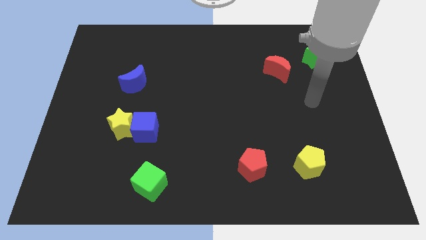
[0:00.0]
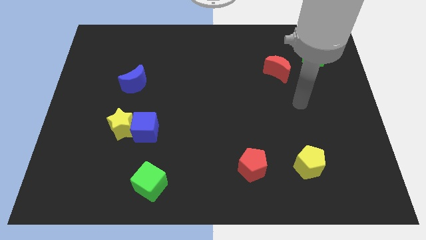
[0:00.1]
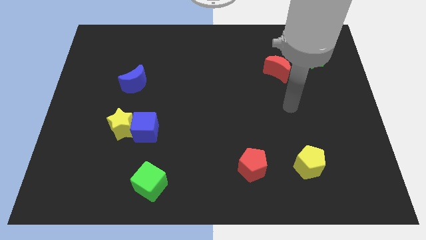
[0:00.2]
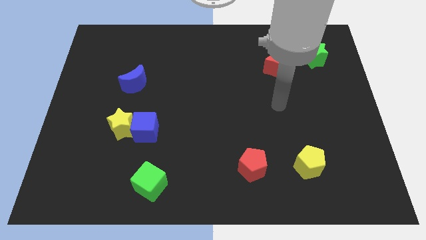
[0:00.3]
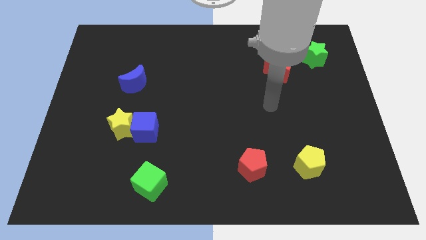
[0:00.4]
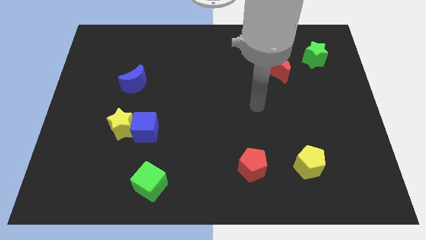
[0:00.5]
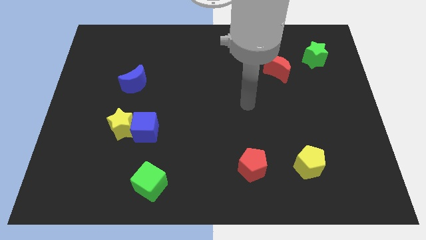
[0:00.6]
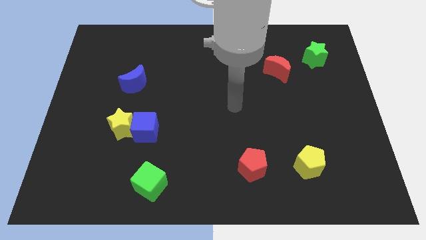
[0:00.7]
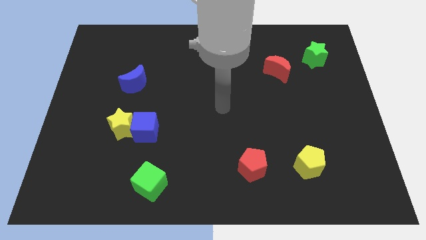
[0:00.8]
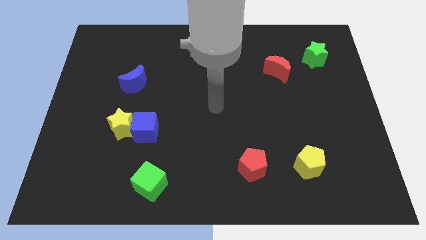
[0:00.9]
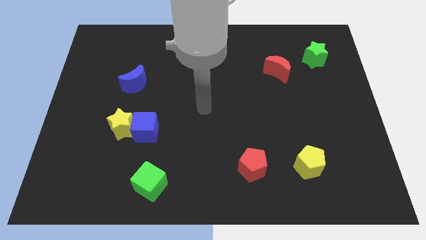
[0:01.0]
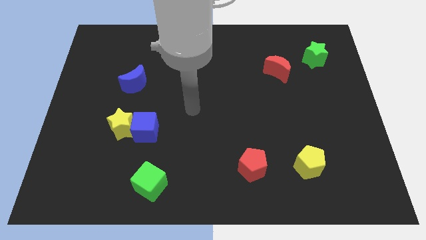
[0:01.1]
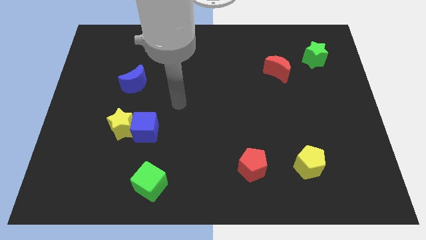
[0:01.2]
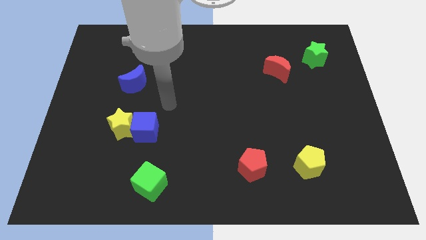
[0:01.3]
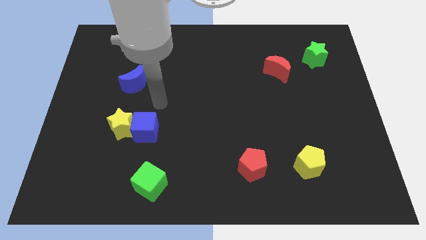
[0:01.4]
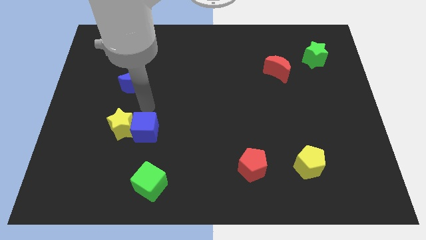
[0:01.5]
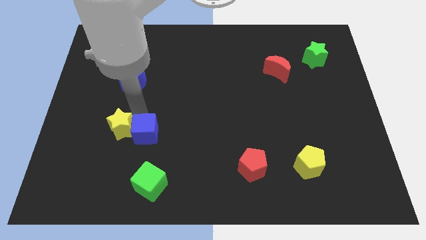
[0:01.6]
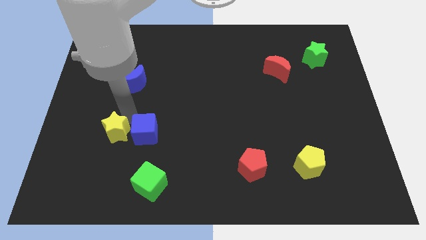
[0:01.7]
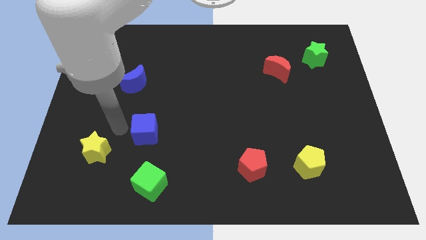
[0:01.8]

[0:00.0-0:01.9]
separate the blue cube from the yellow star

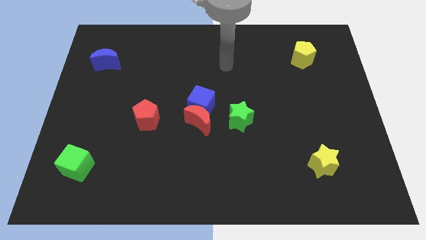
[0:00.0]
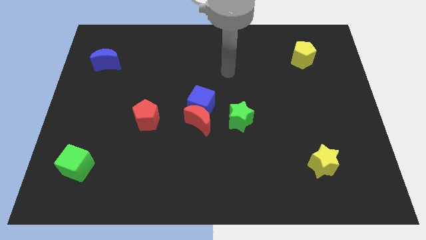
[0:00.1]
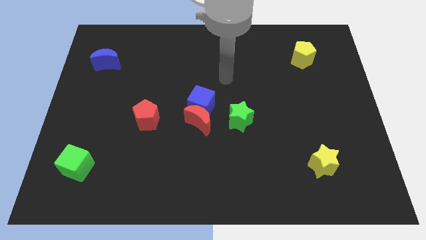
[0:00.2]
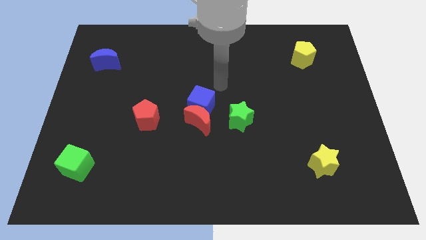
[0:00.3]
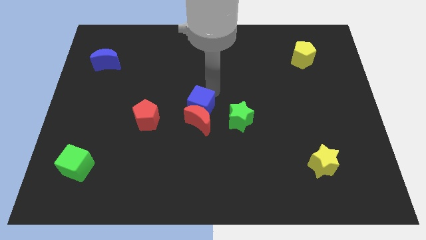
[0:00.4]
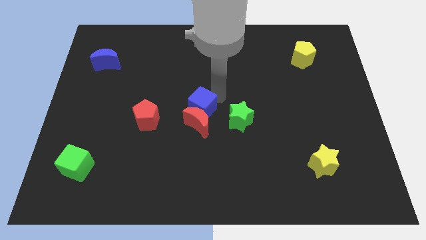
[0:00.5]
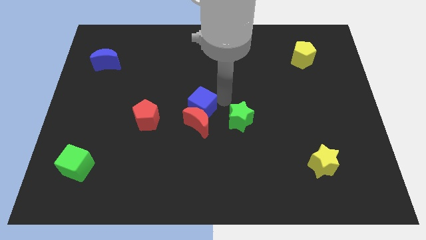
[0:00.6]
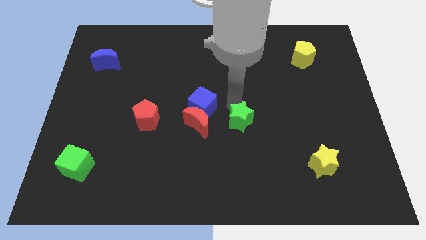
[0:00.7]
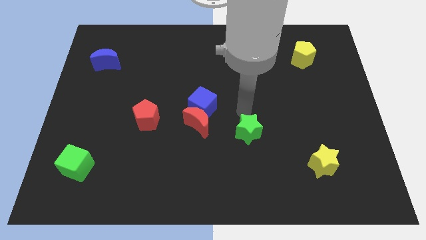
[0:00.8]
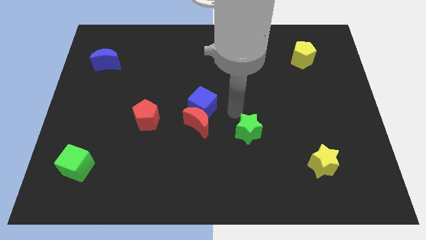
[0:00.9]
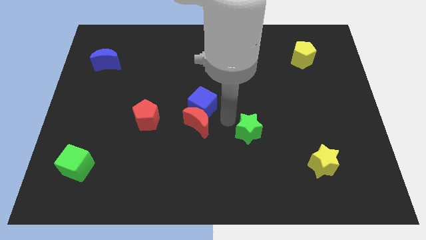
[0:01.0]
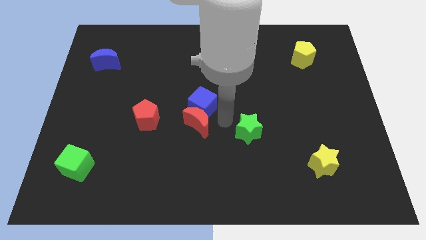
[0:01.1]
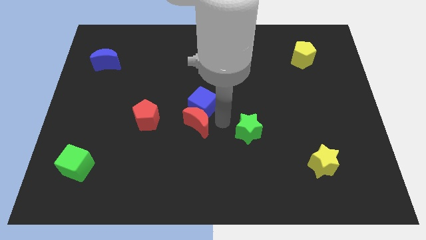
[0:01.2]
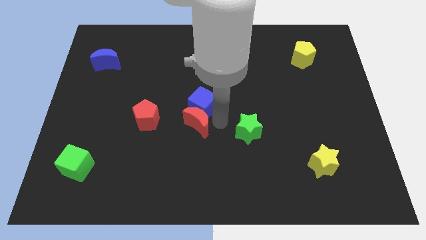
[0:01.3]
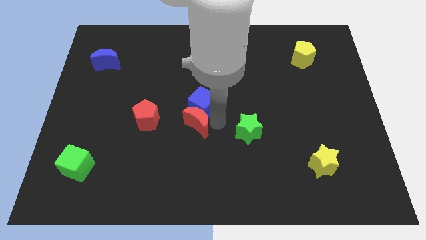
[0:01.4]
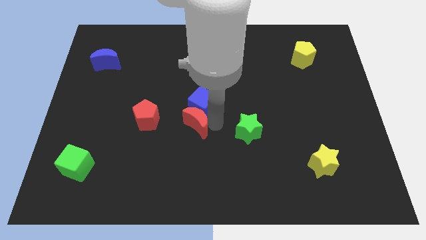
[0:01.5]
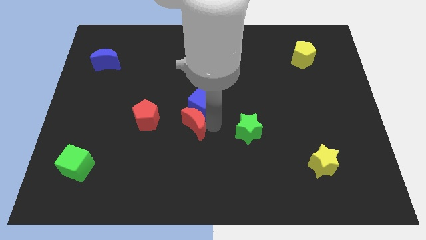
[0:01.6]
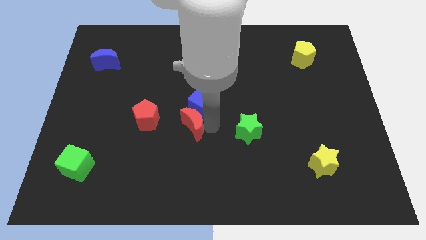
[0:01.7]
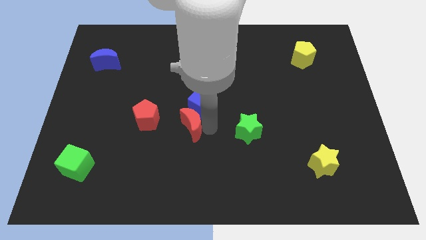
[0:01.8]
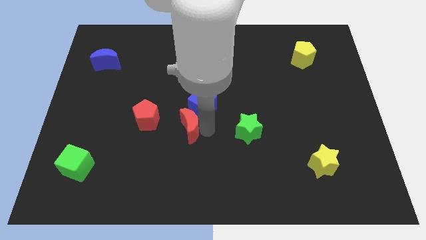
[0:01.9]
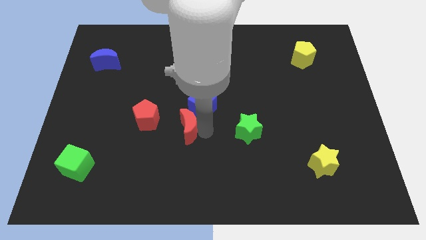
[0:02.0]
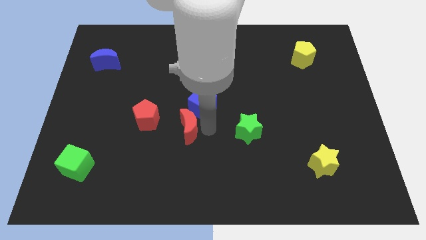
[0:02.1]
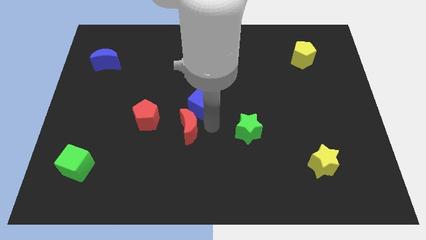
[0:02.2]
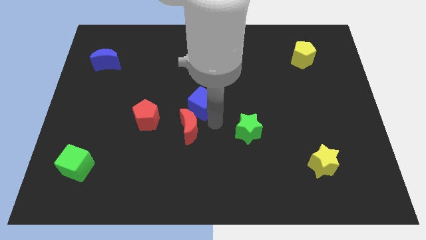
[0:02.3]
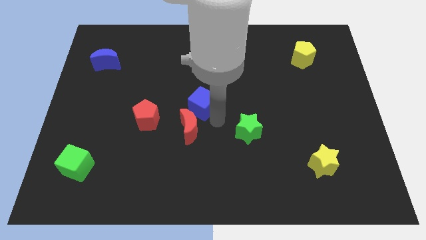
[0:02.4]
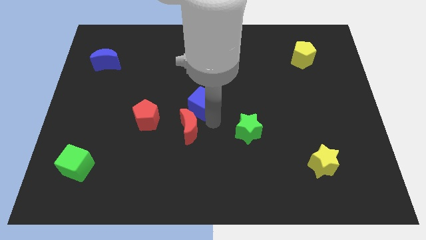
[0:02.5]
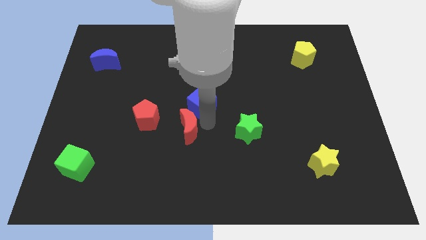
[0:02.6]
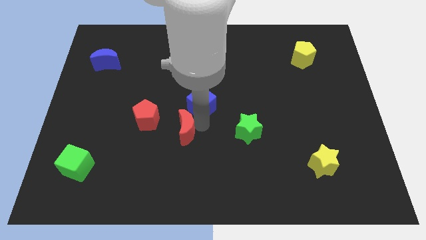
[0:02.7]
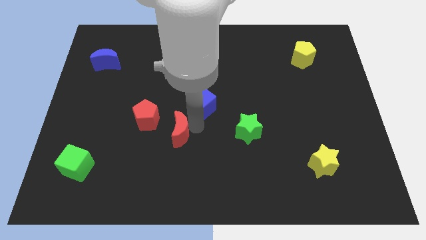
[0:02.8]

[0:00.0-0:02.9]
pull the red moon apart from the blue cube and green star

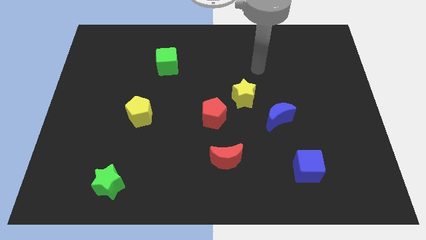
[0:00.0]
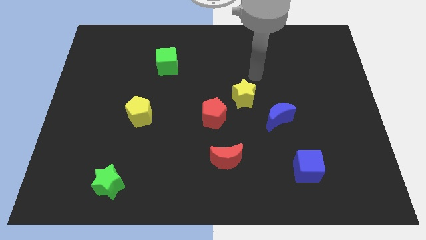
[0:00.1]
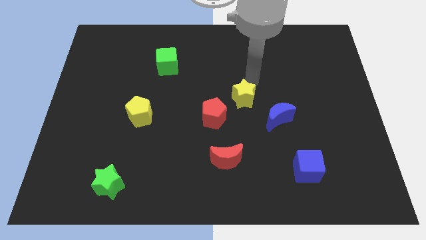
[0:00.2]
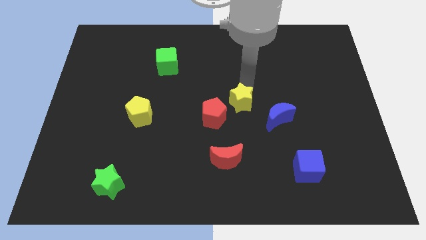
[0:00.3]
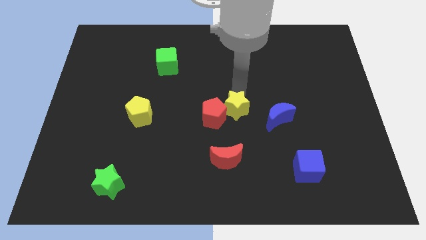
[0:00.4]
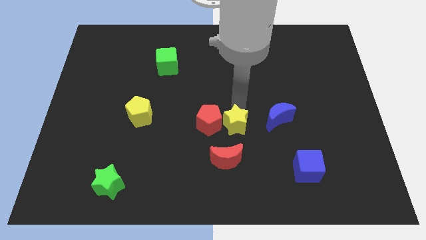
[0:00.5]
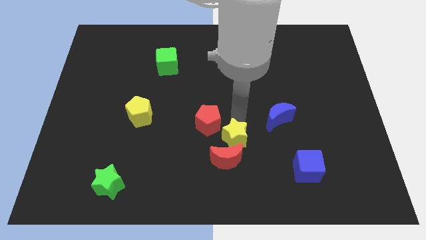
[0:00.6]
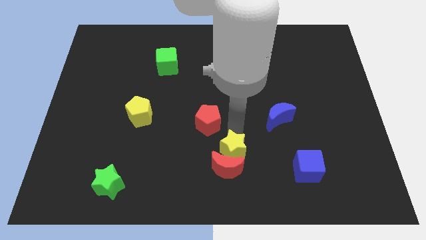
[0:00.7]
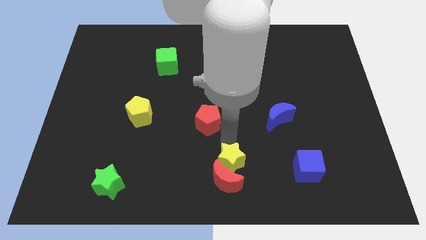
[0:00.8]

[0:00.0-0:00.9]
pull the red pentagon apart from the yellow star

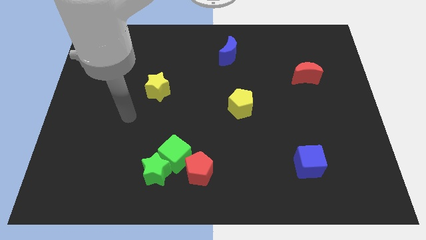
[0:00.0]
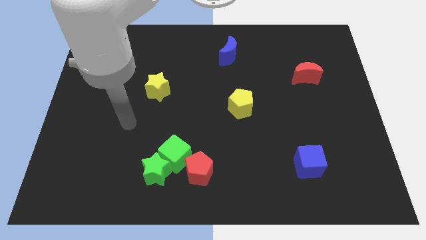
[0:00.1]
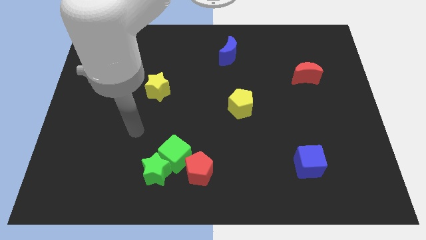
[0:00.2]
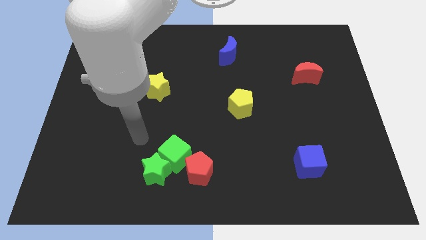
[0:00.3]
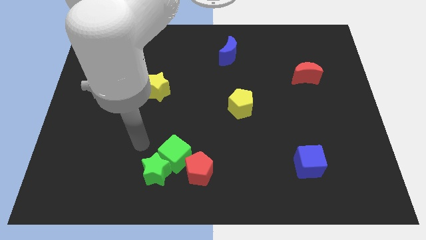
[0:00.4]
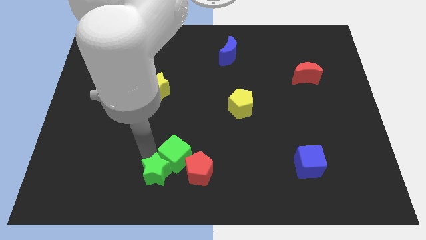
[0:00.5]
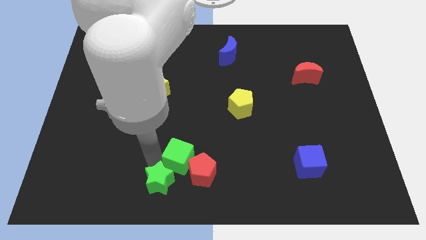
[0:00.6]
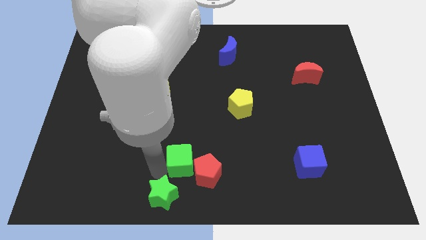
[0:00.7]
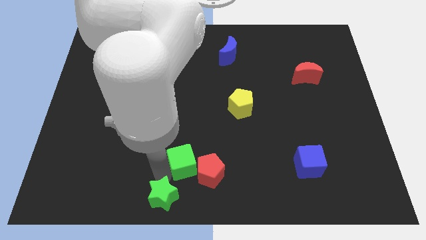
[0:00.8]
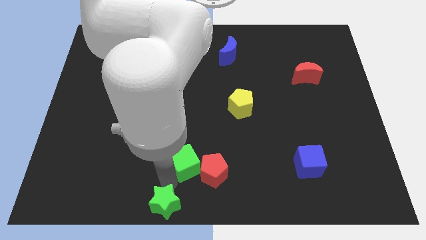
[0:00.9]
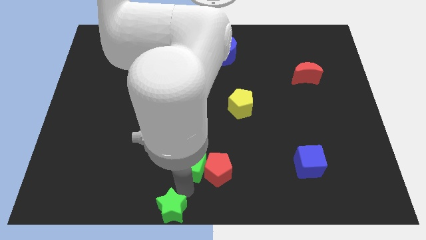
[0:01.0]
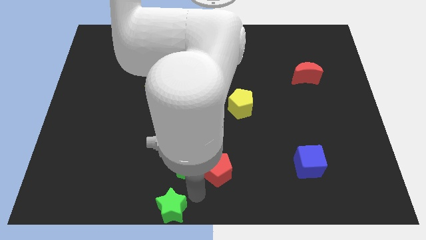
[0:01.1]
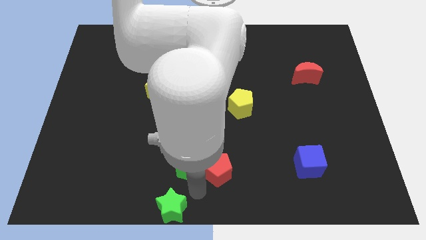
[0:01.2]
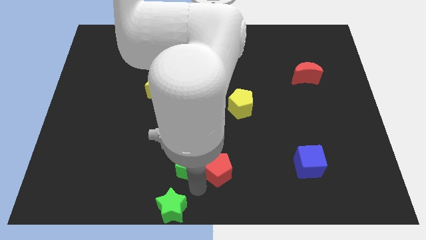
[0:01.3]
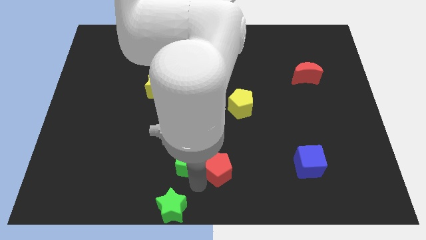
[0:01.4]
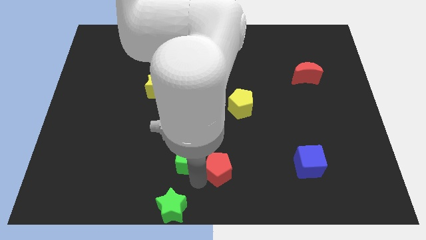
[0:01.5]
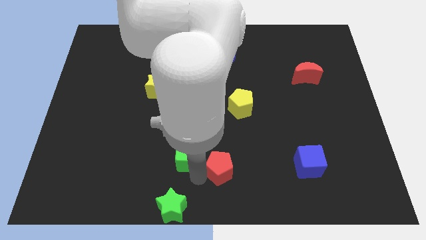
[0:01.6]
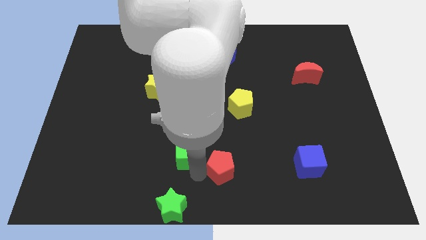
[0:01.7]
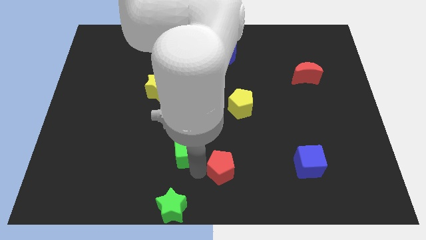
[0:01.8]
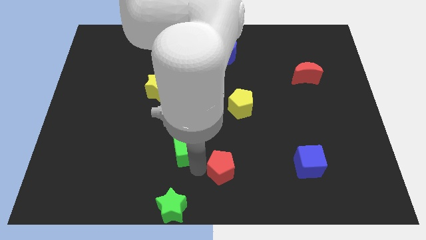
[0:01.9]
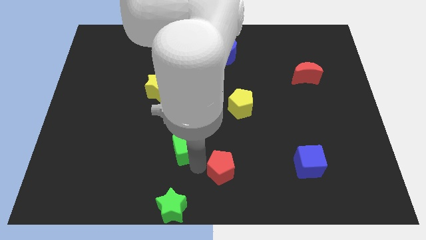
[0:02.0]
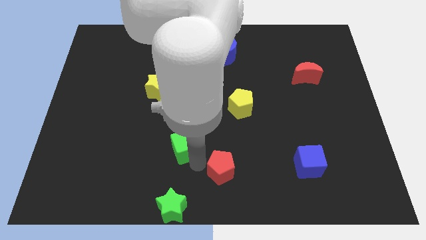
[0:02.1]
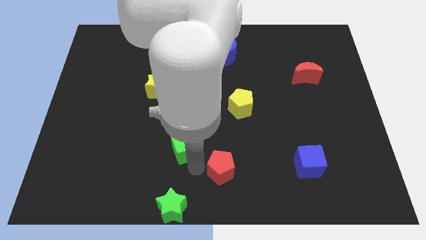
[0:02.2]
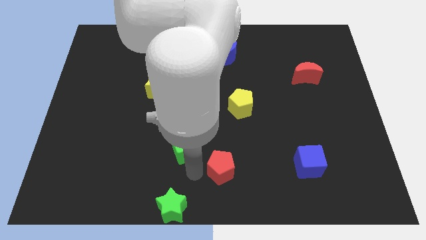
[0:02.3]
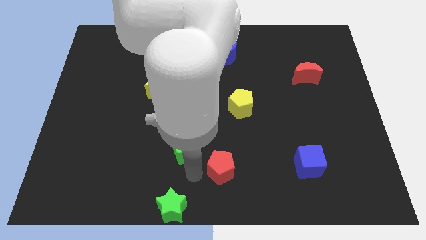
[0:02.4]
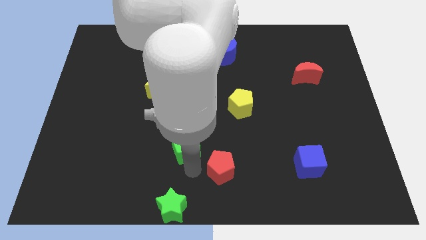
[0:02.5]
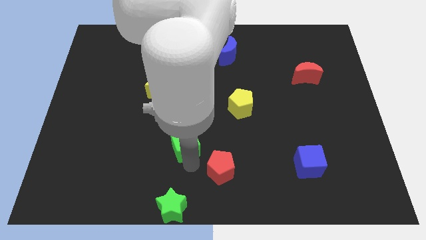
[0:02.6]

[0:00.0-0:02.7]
move the green cube away from the green star and red pentagon

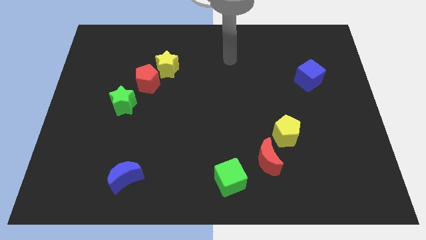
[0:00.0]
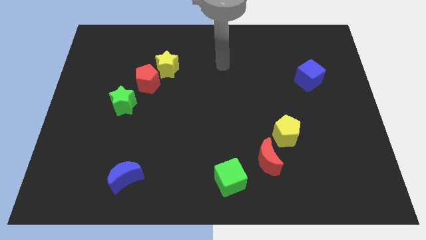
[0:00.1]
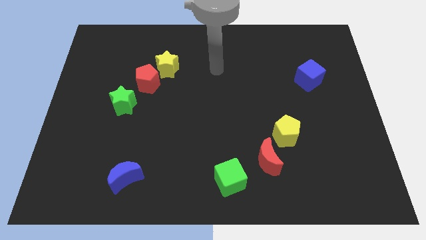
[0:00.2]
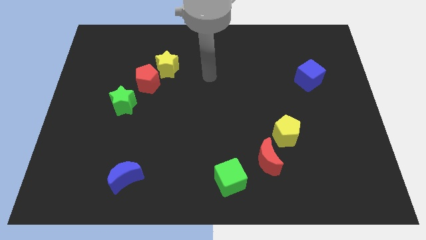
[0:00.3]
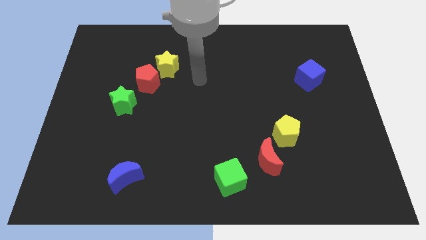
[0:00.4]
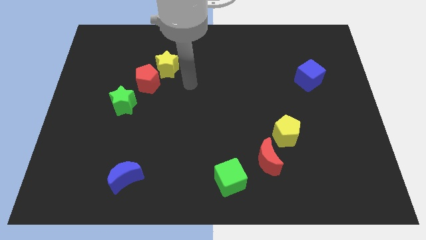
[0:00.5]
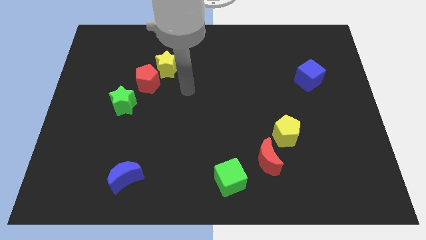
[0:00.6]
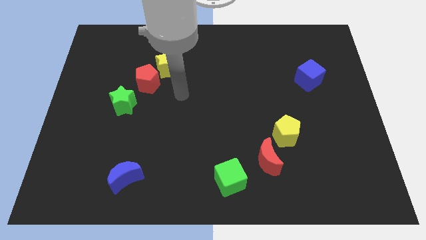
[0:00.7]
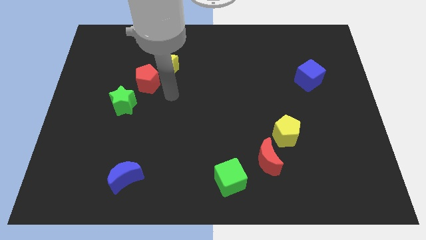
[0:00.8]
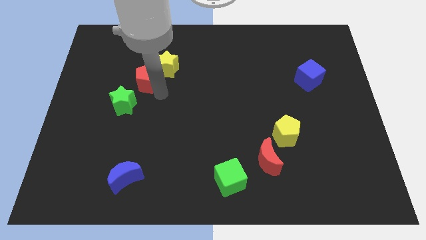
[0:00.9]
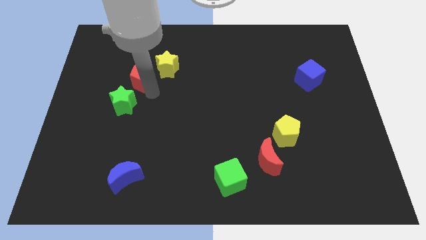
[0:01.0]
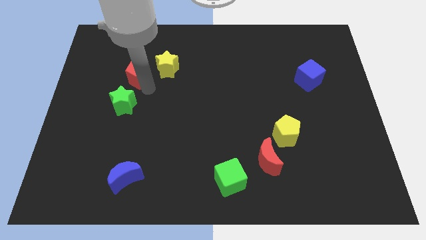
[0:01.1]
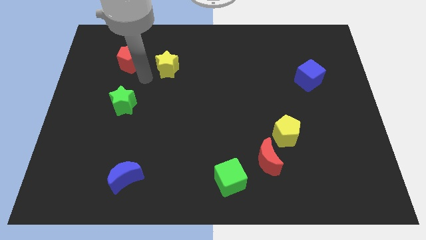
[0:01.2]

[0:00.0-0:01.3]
separate the yellow star from the red pentagon
